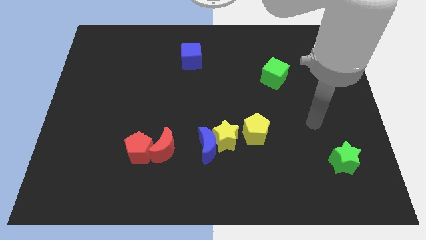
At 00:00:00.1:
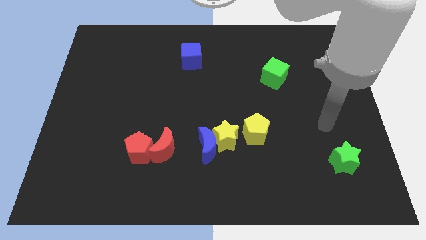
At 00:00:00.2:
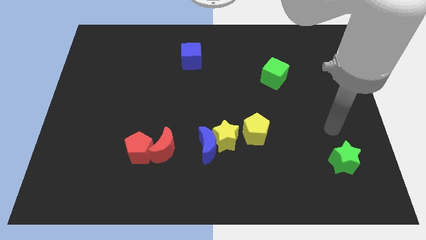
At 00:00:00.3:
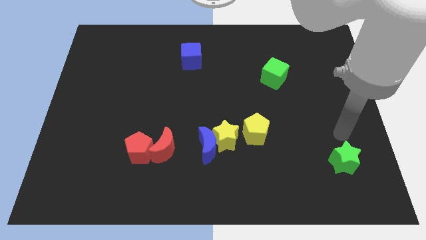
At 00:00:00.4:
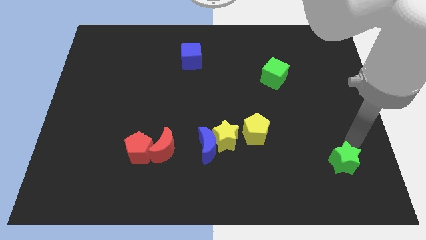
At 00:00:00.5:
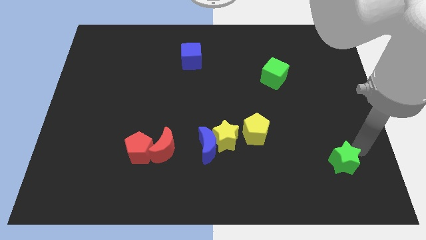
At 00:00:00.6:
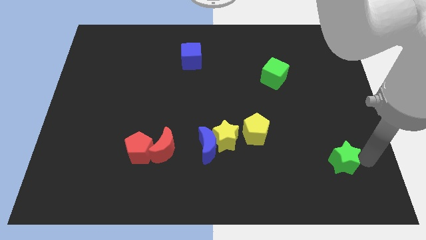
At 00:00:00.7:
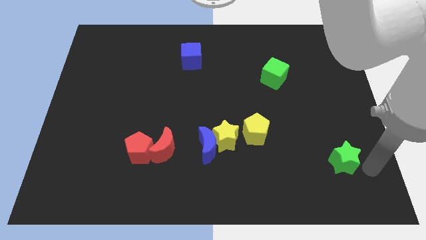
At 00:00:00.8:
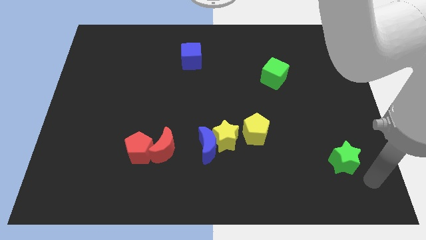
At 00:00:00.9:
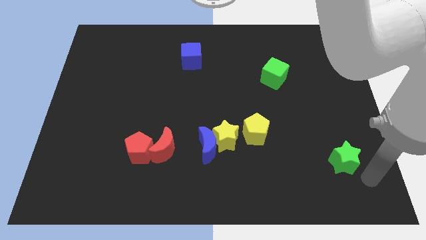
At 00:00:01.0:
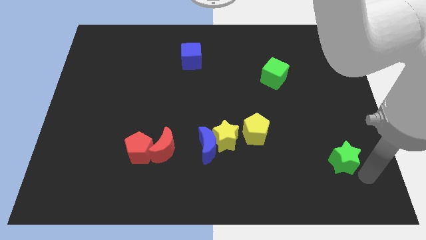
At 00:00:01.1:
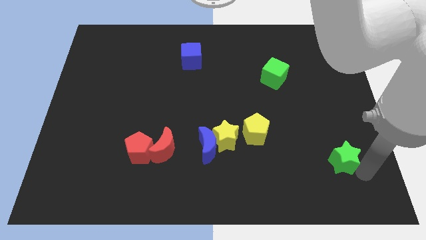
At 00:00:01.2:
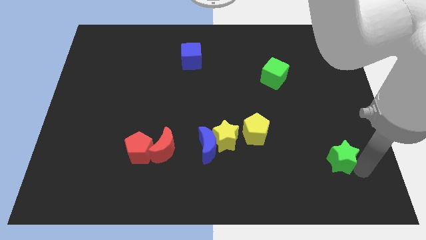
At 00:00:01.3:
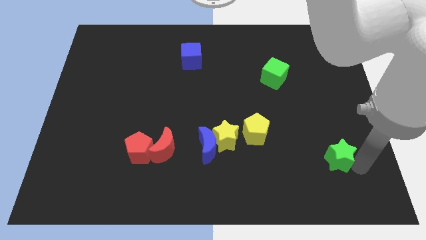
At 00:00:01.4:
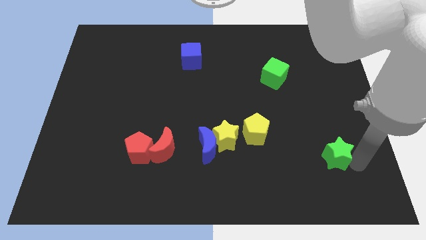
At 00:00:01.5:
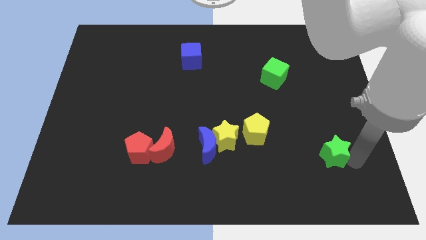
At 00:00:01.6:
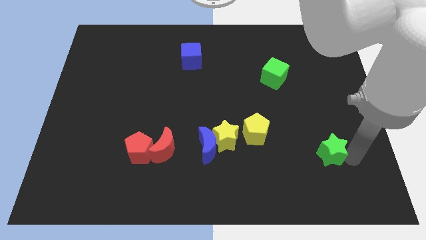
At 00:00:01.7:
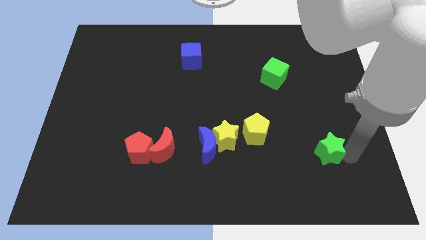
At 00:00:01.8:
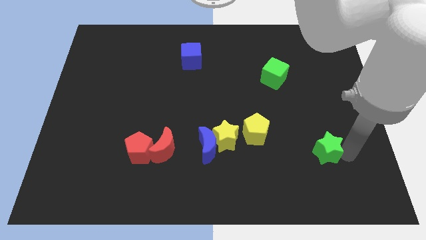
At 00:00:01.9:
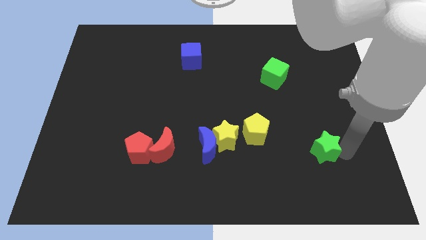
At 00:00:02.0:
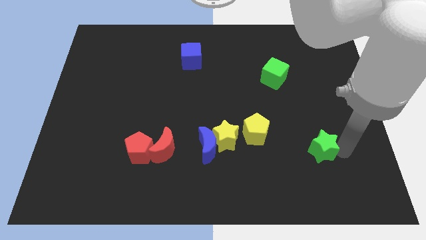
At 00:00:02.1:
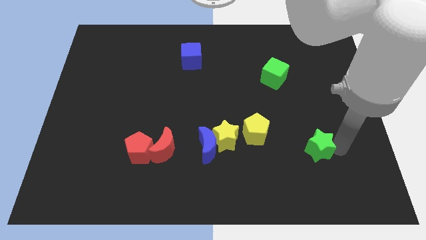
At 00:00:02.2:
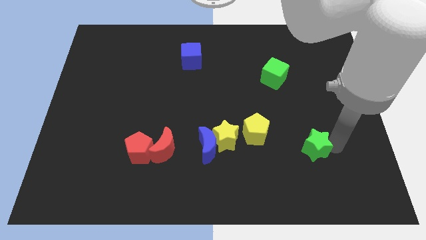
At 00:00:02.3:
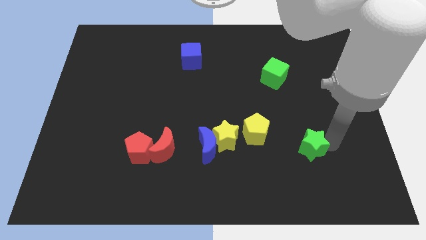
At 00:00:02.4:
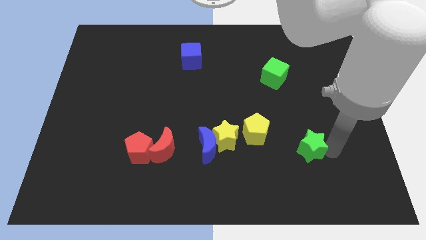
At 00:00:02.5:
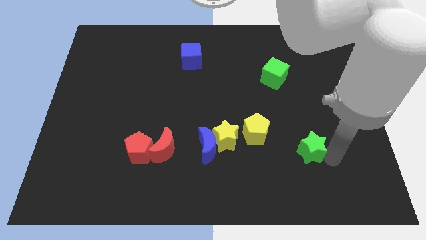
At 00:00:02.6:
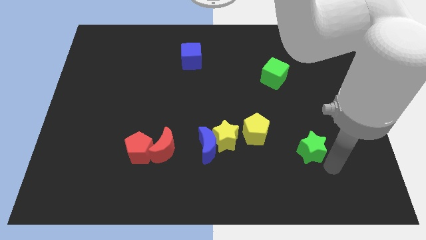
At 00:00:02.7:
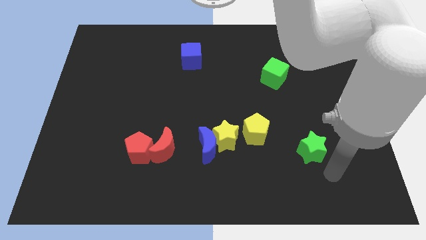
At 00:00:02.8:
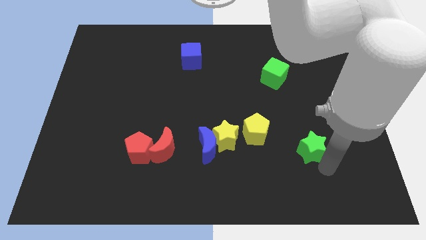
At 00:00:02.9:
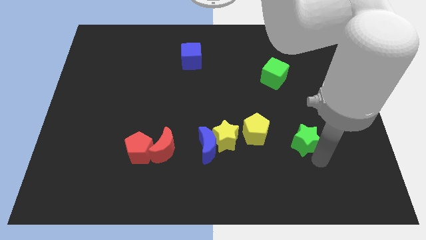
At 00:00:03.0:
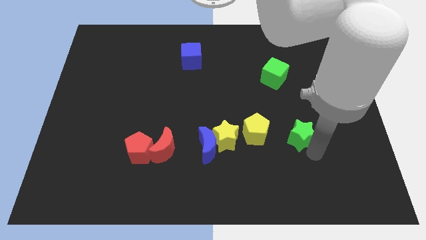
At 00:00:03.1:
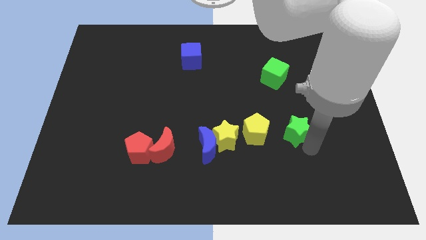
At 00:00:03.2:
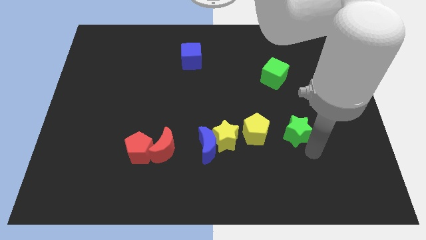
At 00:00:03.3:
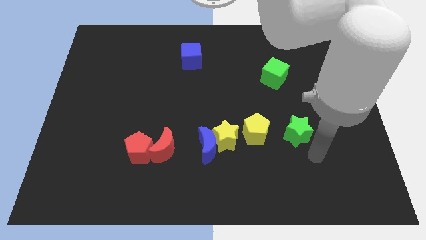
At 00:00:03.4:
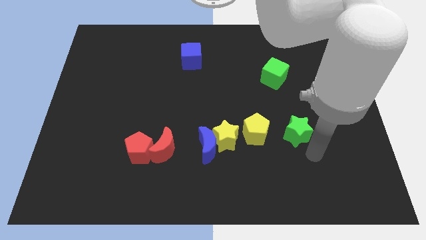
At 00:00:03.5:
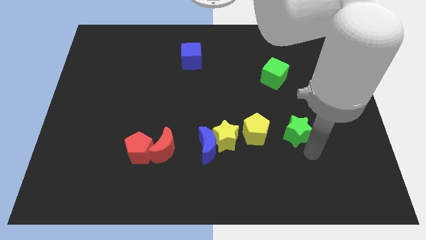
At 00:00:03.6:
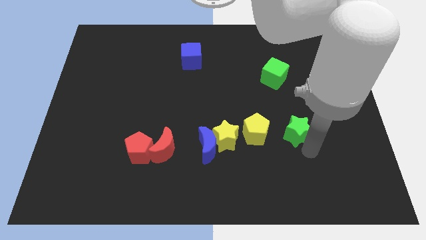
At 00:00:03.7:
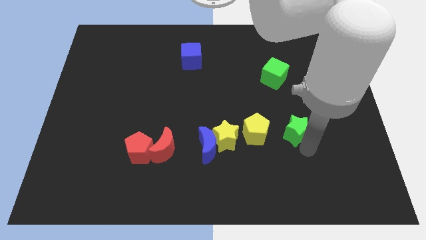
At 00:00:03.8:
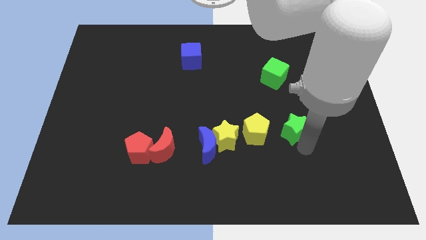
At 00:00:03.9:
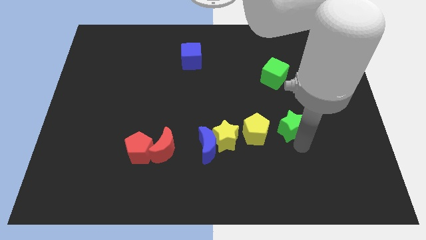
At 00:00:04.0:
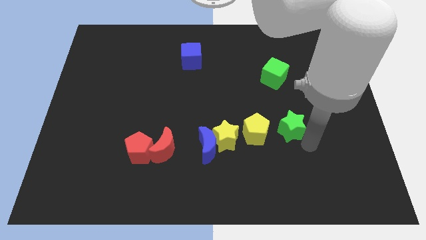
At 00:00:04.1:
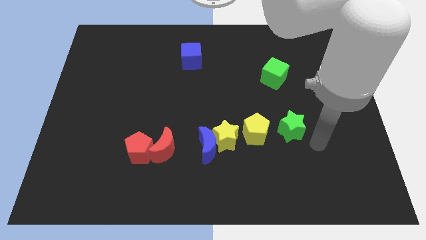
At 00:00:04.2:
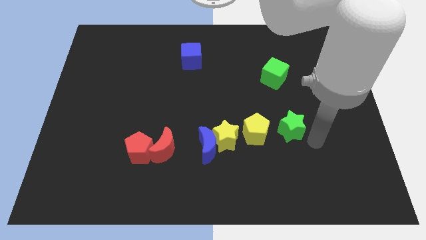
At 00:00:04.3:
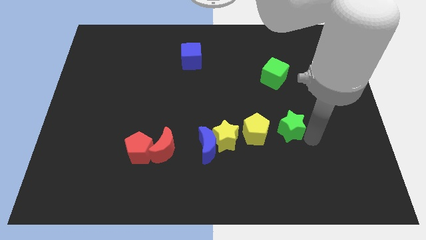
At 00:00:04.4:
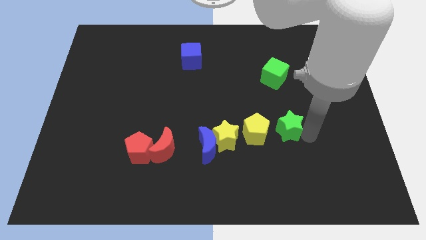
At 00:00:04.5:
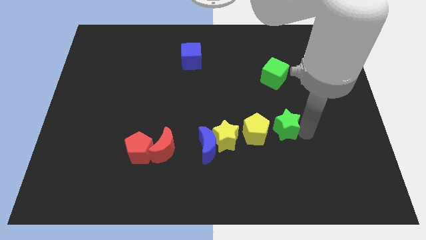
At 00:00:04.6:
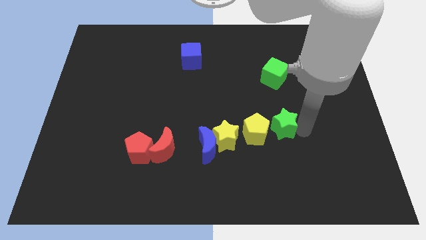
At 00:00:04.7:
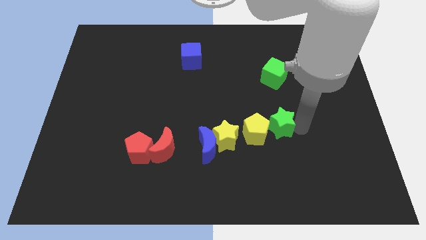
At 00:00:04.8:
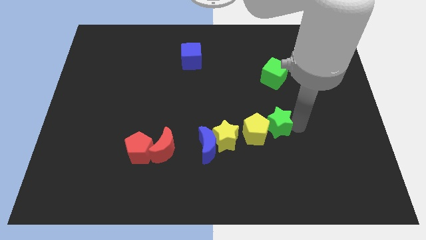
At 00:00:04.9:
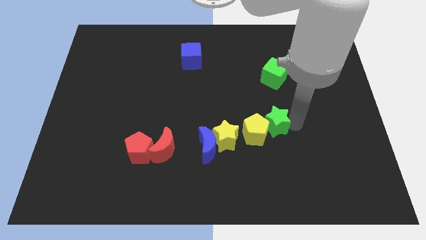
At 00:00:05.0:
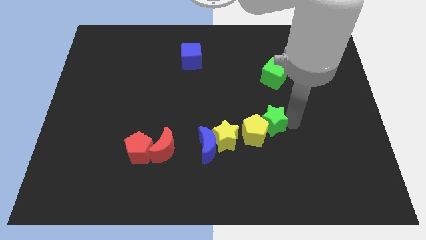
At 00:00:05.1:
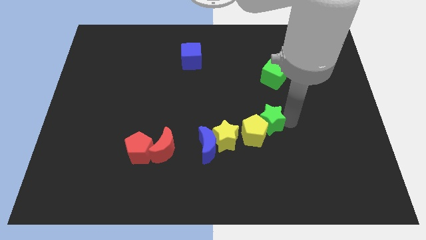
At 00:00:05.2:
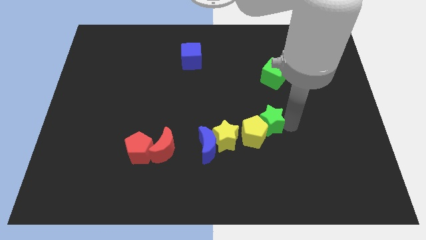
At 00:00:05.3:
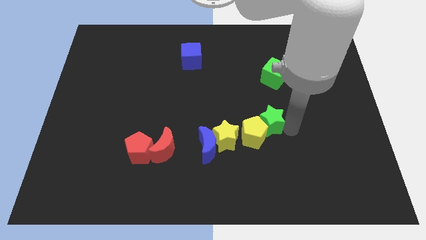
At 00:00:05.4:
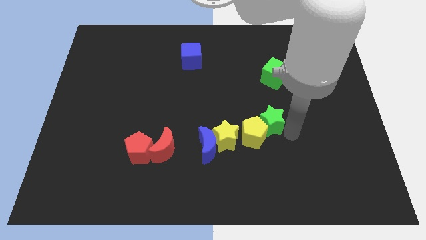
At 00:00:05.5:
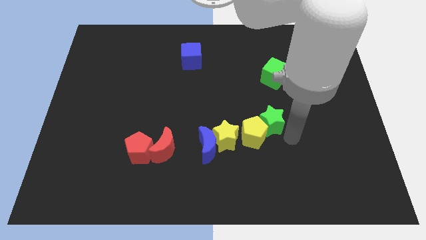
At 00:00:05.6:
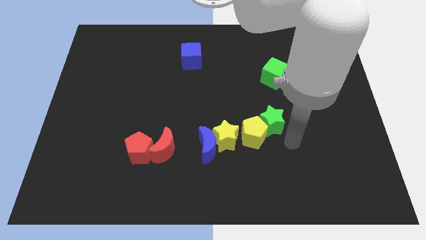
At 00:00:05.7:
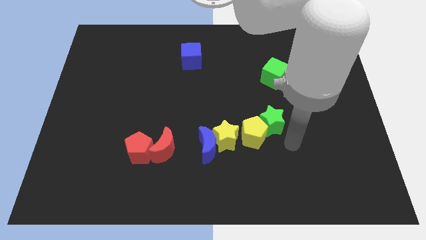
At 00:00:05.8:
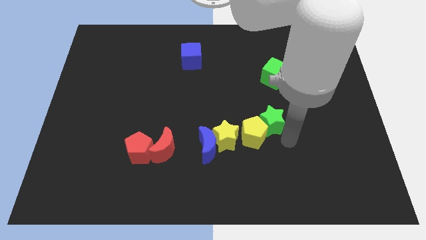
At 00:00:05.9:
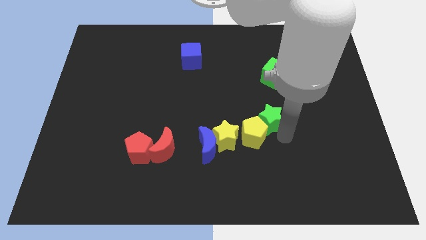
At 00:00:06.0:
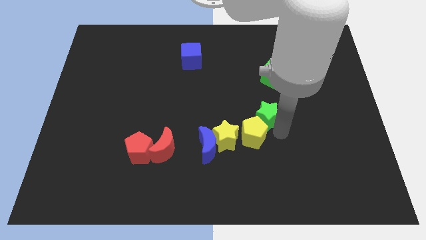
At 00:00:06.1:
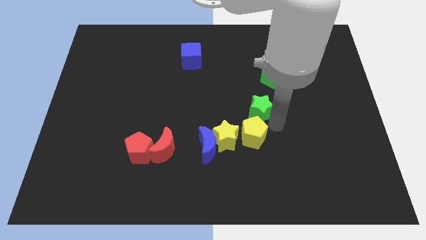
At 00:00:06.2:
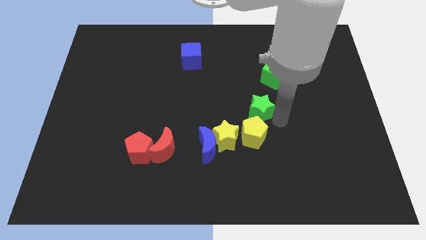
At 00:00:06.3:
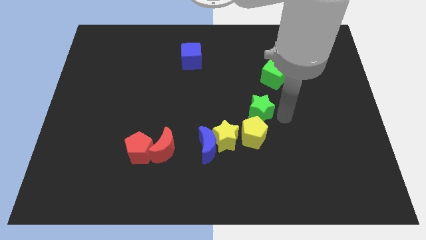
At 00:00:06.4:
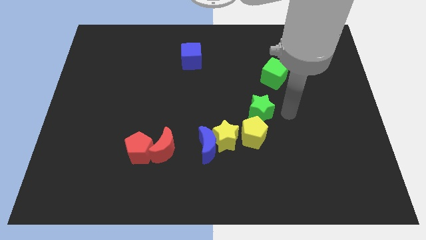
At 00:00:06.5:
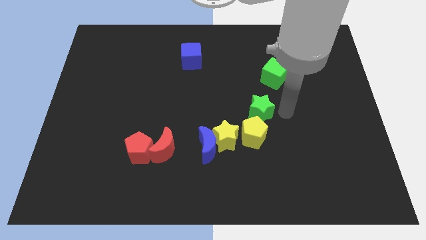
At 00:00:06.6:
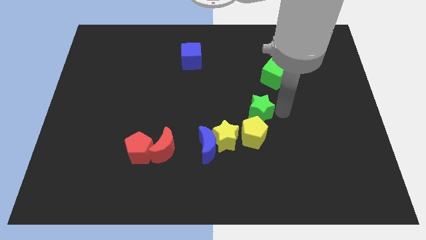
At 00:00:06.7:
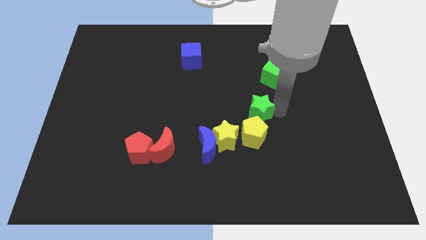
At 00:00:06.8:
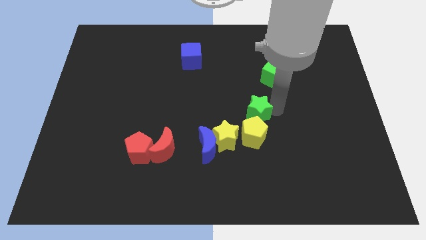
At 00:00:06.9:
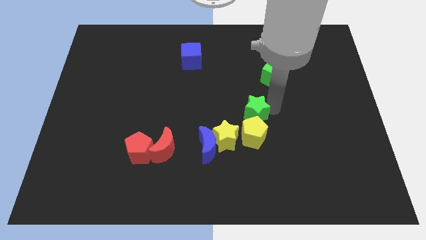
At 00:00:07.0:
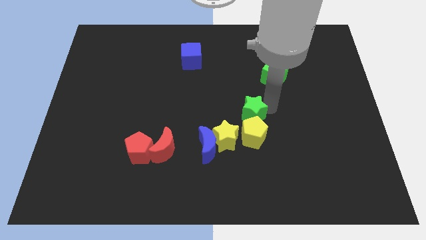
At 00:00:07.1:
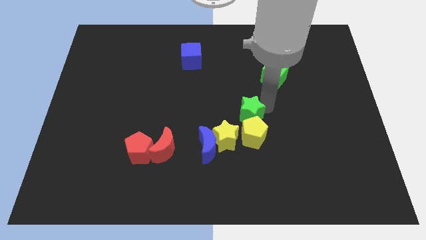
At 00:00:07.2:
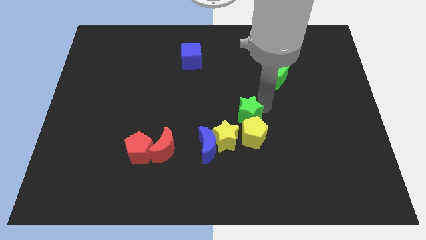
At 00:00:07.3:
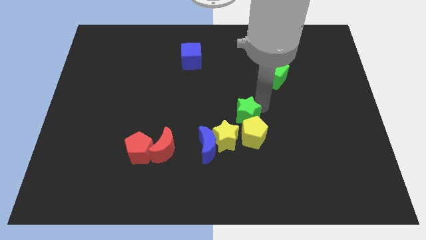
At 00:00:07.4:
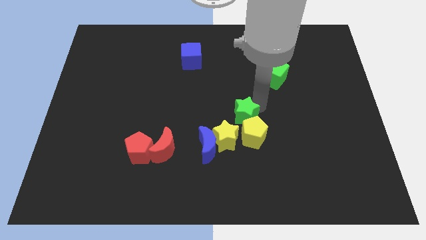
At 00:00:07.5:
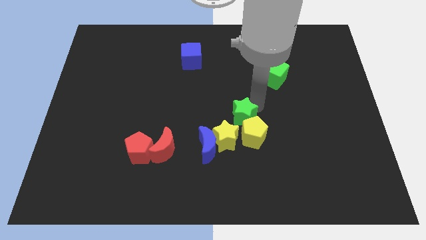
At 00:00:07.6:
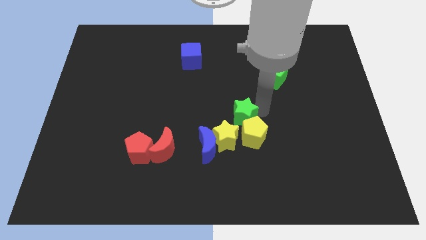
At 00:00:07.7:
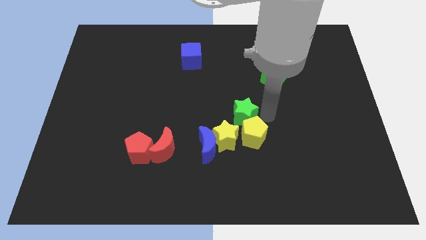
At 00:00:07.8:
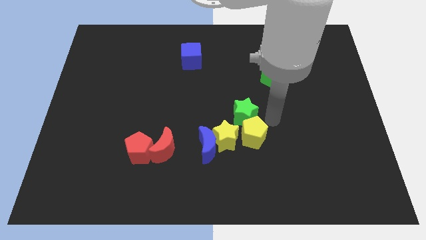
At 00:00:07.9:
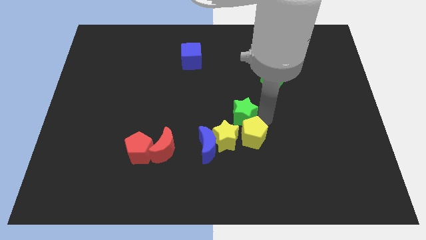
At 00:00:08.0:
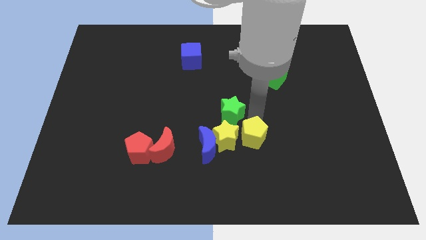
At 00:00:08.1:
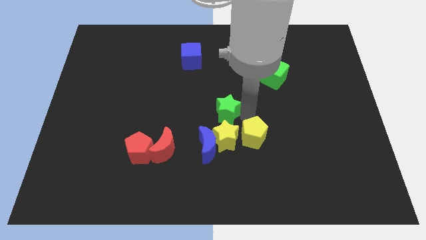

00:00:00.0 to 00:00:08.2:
push the green star to the top of the blue moon
